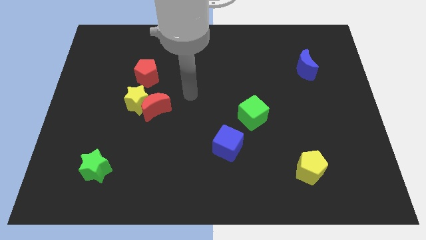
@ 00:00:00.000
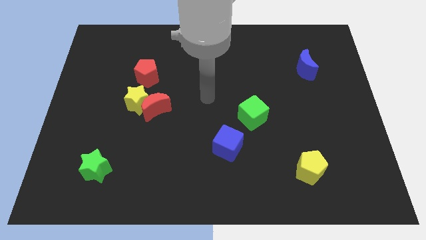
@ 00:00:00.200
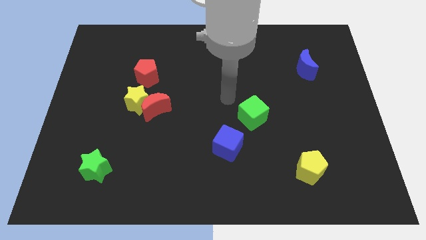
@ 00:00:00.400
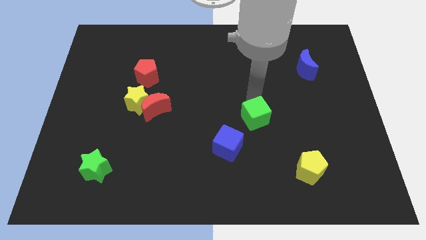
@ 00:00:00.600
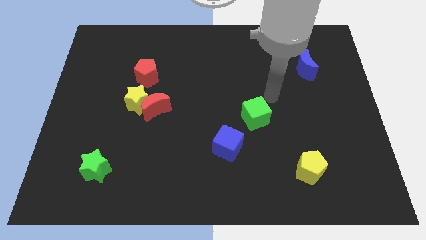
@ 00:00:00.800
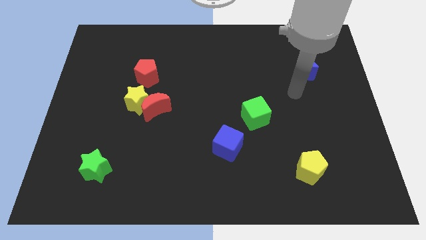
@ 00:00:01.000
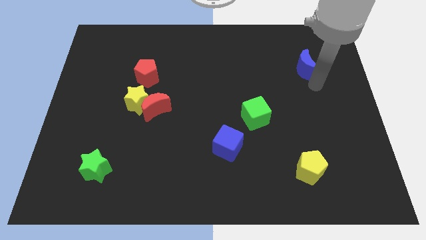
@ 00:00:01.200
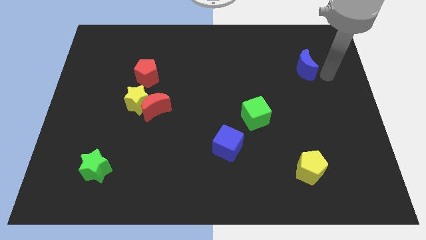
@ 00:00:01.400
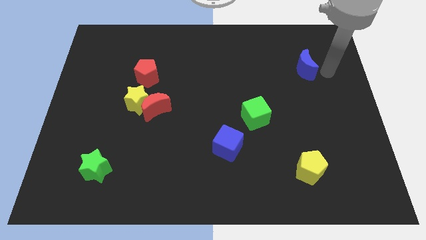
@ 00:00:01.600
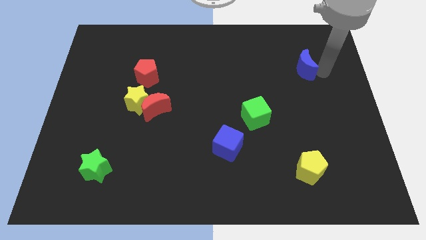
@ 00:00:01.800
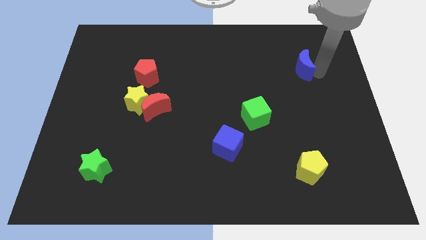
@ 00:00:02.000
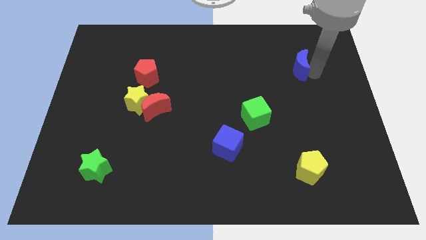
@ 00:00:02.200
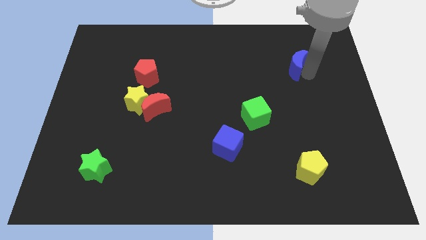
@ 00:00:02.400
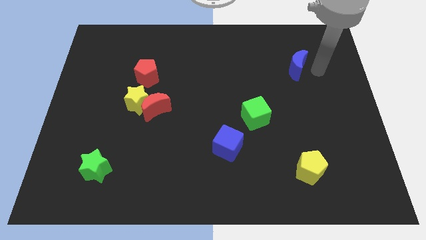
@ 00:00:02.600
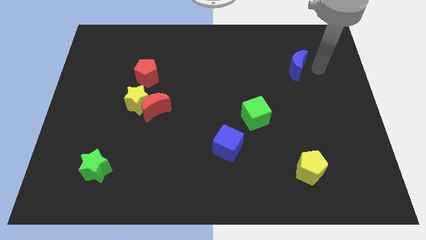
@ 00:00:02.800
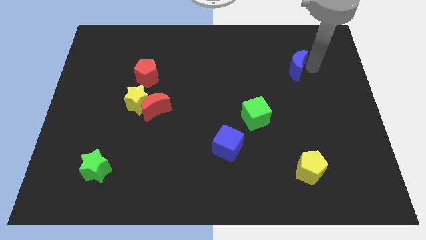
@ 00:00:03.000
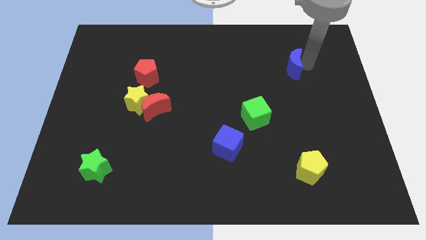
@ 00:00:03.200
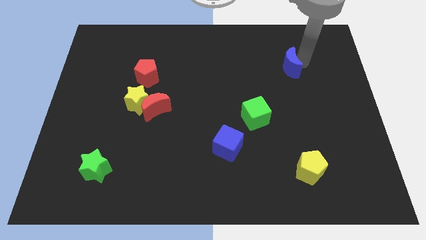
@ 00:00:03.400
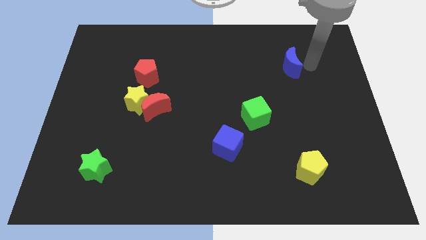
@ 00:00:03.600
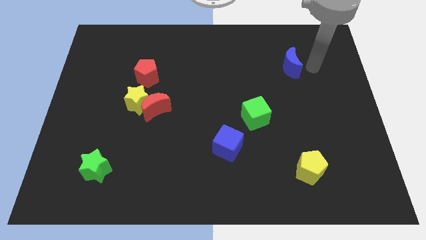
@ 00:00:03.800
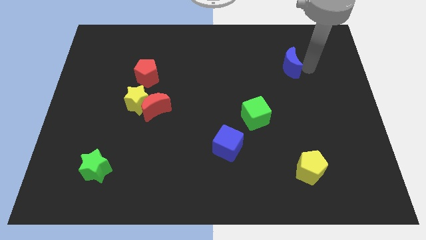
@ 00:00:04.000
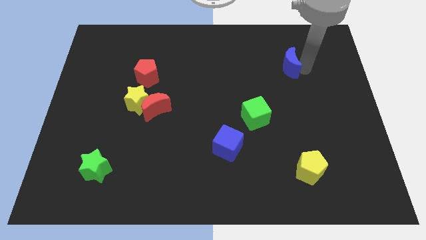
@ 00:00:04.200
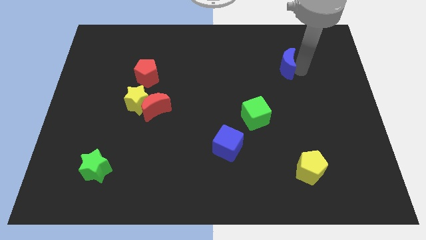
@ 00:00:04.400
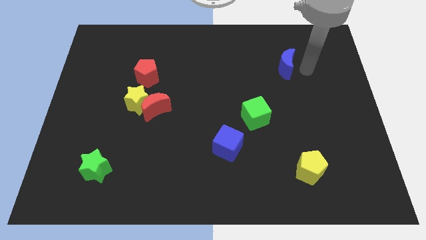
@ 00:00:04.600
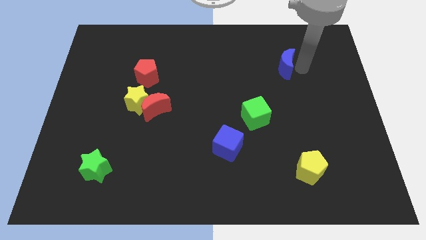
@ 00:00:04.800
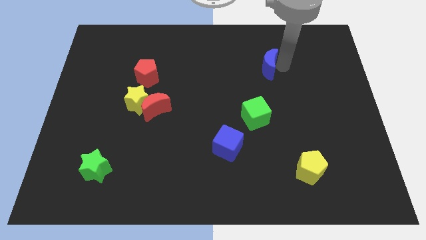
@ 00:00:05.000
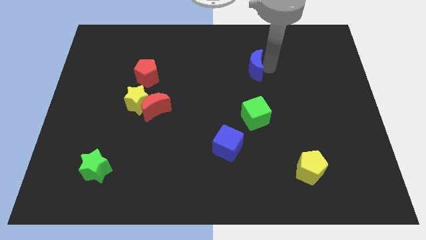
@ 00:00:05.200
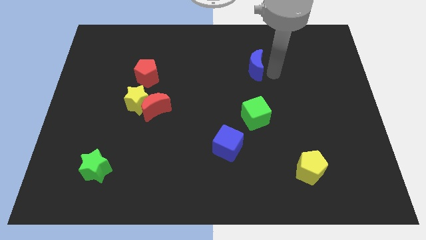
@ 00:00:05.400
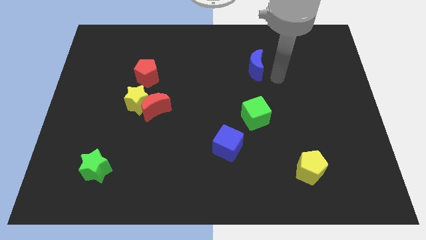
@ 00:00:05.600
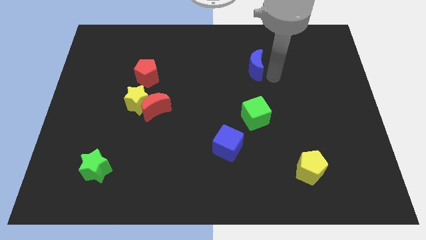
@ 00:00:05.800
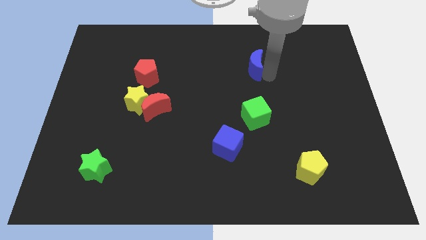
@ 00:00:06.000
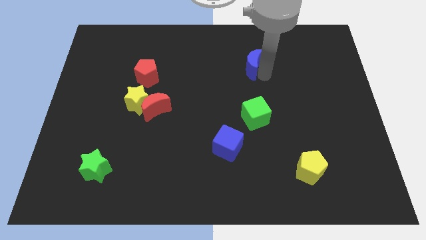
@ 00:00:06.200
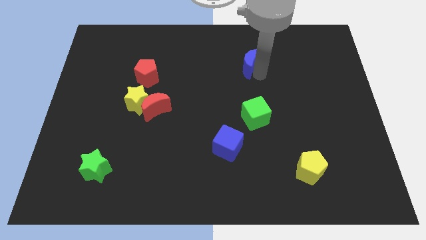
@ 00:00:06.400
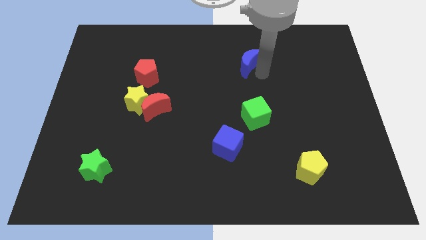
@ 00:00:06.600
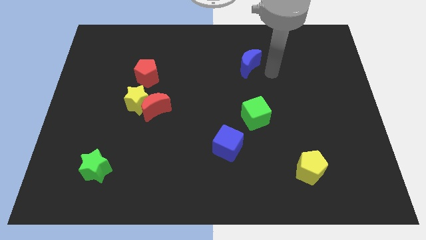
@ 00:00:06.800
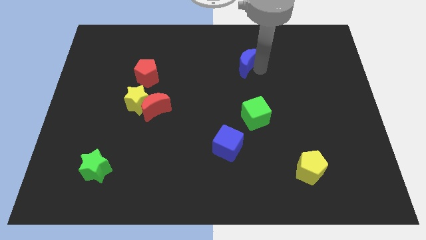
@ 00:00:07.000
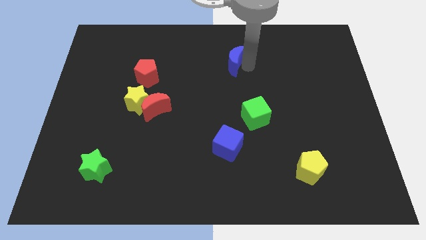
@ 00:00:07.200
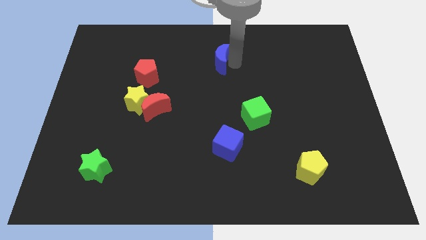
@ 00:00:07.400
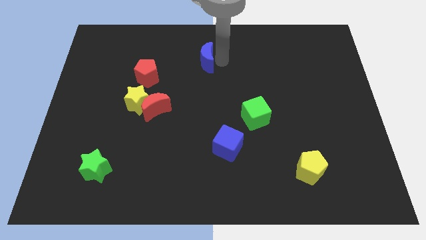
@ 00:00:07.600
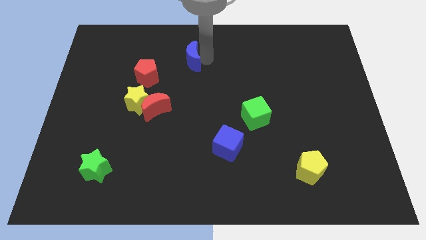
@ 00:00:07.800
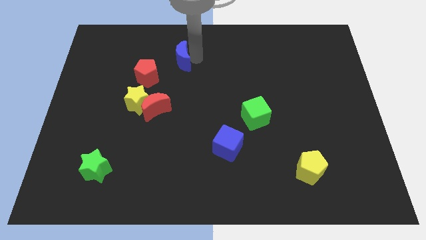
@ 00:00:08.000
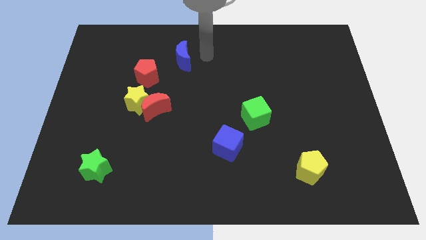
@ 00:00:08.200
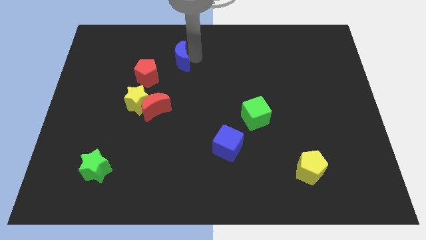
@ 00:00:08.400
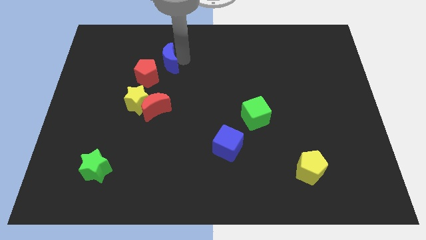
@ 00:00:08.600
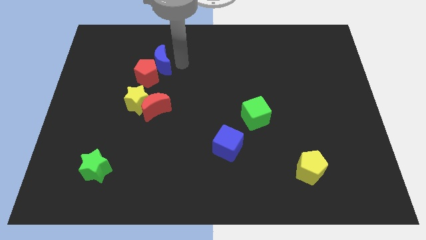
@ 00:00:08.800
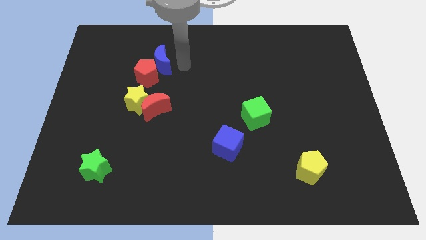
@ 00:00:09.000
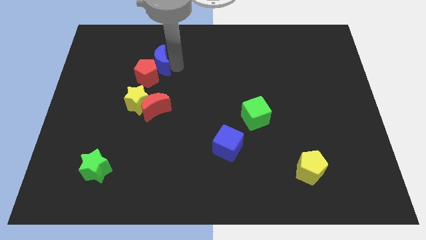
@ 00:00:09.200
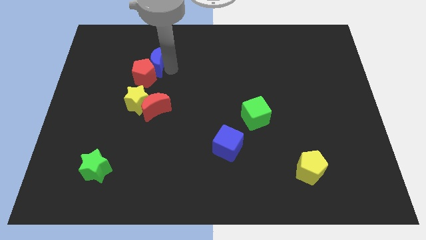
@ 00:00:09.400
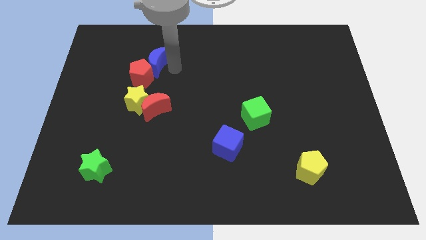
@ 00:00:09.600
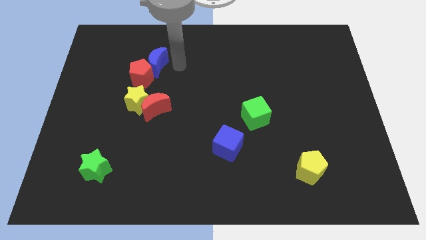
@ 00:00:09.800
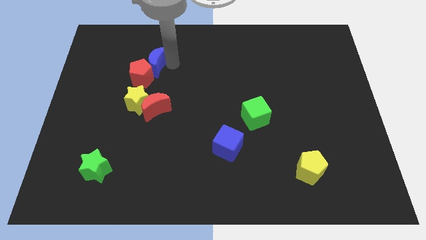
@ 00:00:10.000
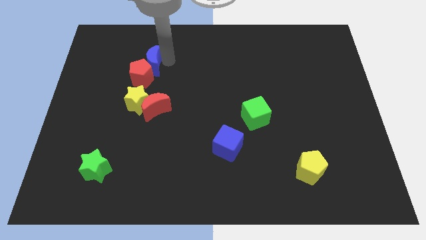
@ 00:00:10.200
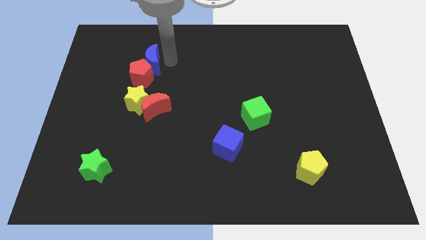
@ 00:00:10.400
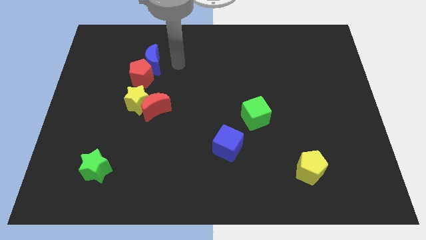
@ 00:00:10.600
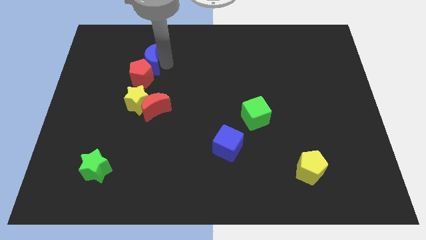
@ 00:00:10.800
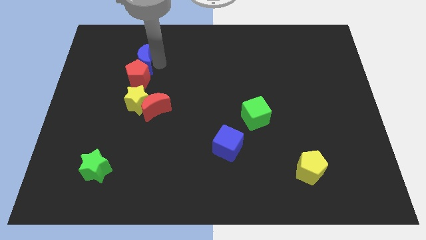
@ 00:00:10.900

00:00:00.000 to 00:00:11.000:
put the blue moon to the top left side of the red pentagon

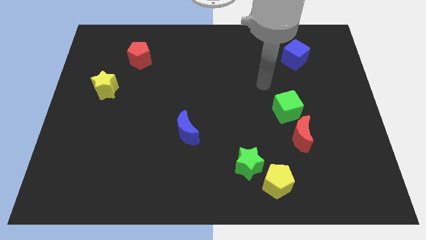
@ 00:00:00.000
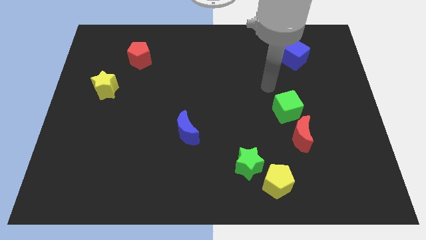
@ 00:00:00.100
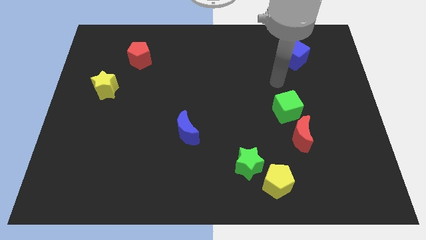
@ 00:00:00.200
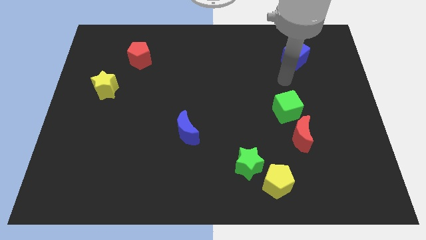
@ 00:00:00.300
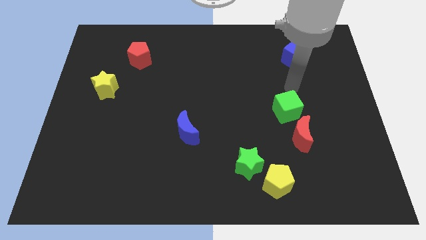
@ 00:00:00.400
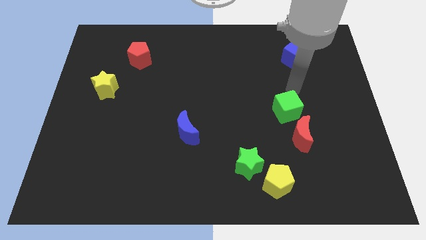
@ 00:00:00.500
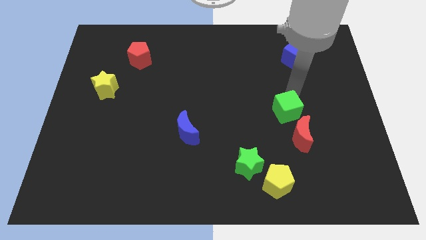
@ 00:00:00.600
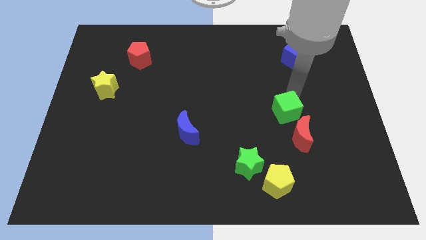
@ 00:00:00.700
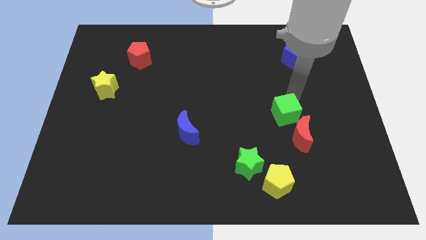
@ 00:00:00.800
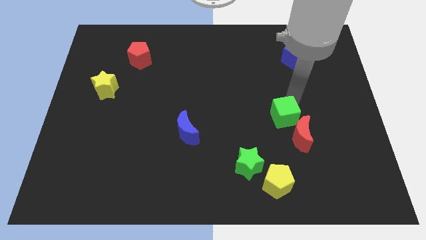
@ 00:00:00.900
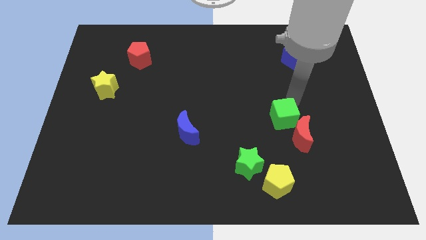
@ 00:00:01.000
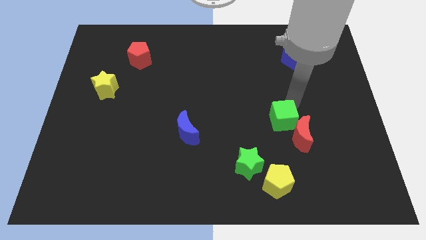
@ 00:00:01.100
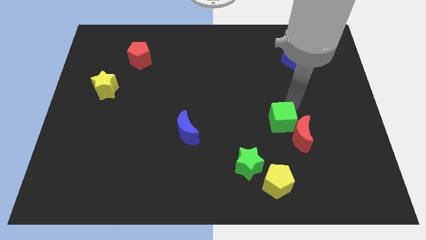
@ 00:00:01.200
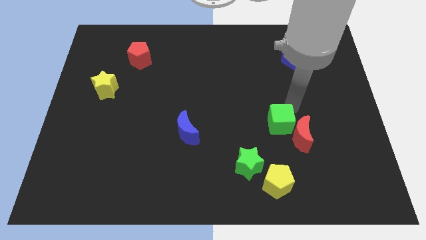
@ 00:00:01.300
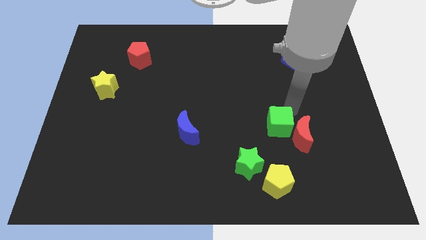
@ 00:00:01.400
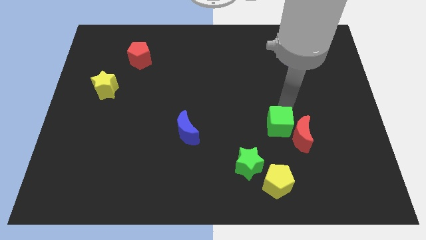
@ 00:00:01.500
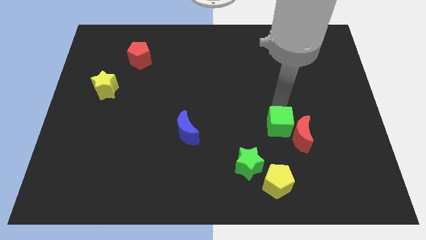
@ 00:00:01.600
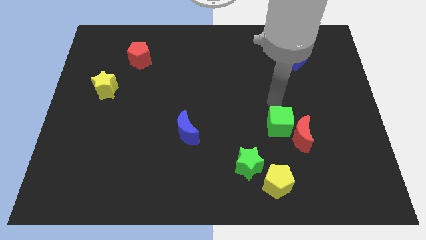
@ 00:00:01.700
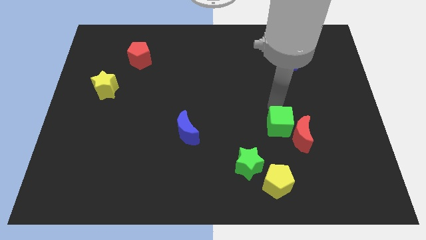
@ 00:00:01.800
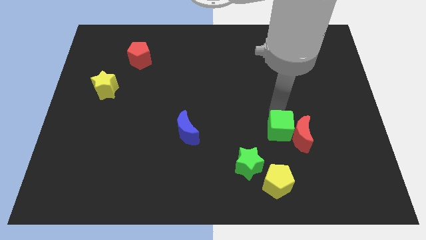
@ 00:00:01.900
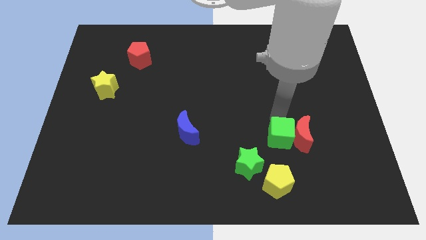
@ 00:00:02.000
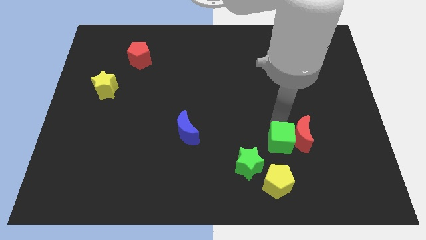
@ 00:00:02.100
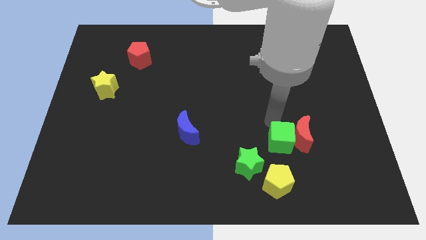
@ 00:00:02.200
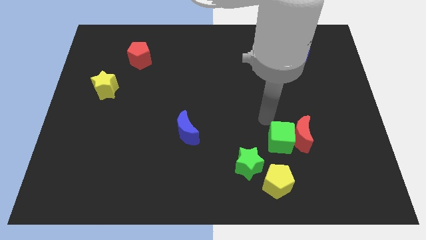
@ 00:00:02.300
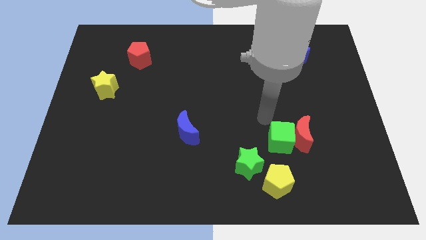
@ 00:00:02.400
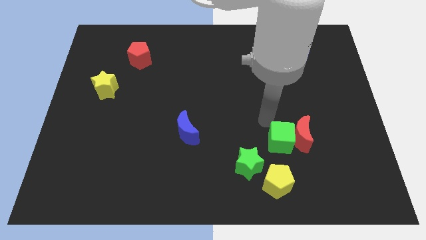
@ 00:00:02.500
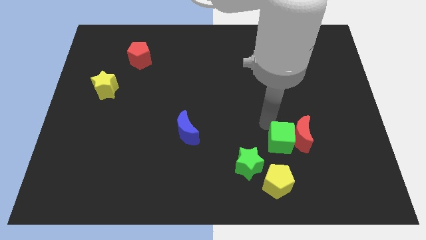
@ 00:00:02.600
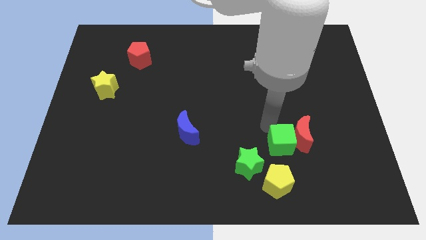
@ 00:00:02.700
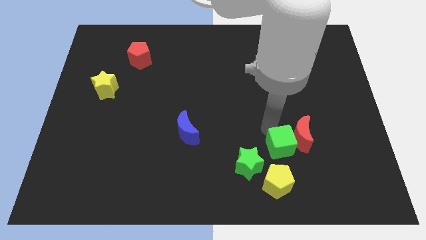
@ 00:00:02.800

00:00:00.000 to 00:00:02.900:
slide the green cube to the right side of the green star
